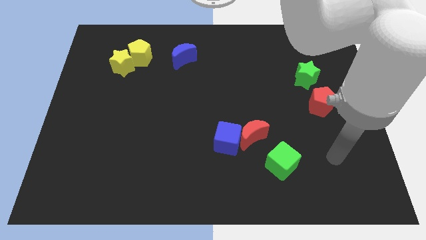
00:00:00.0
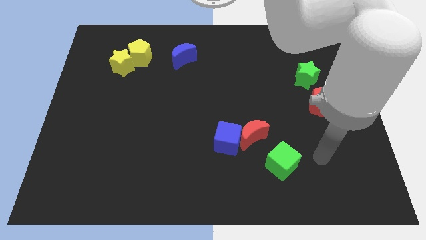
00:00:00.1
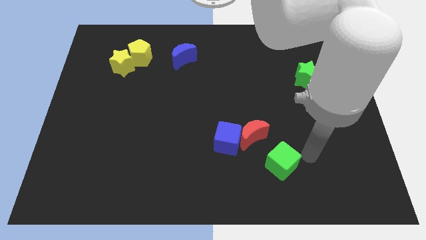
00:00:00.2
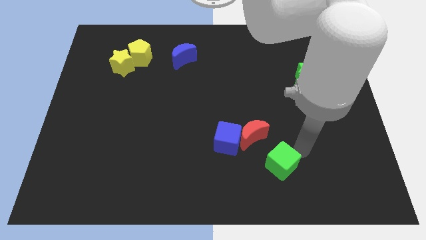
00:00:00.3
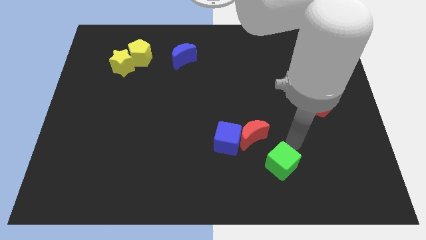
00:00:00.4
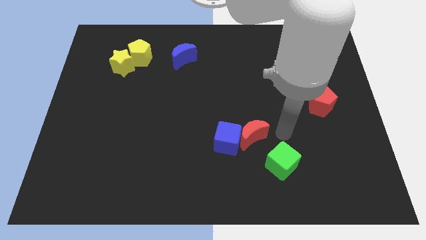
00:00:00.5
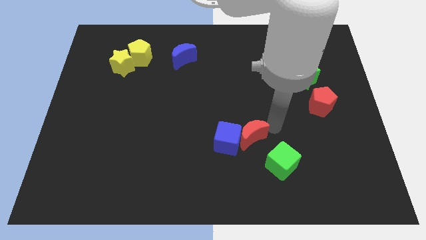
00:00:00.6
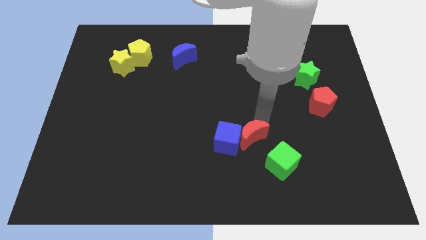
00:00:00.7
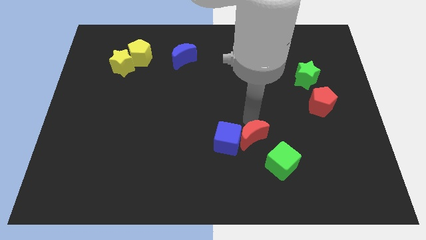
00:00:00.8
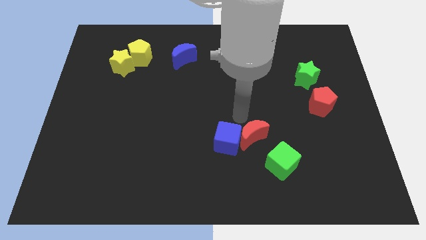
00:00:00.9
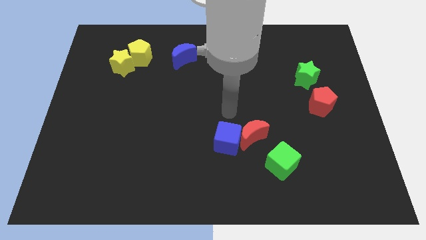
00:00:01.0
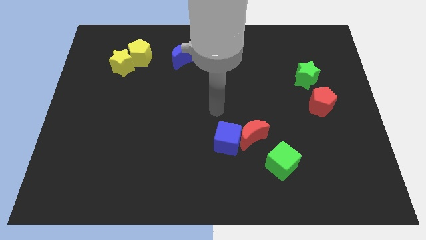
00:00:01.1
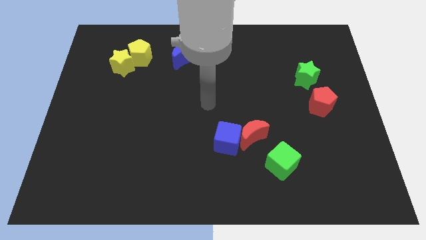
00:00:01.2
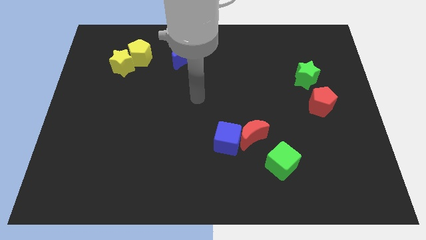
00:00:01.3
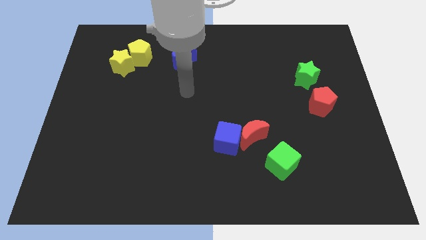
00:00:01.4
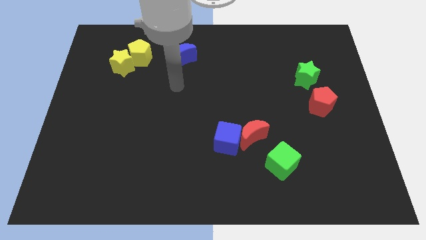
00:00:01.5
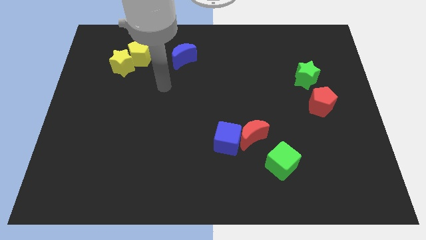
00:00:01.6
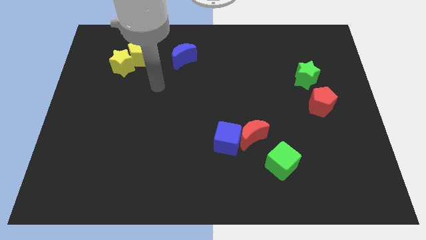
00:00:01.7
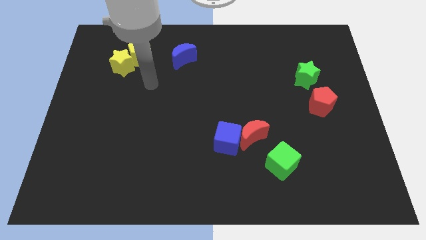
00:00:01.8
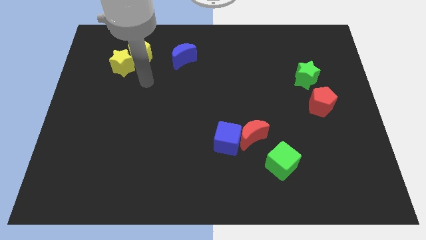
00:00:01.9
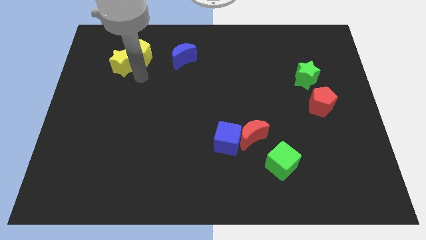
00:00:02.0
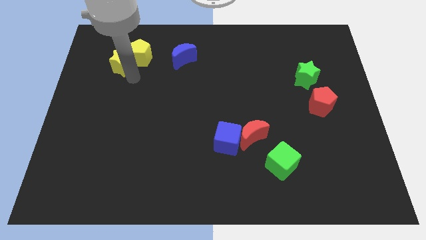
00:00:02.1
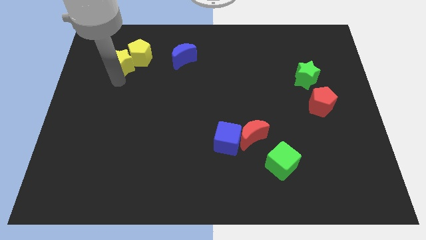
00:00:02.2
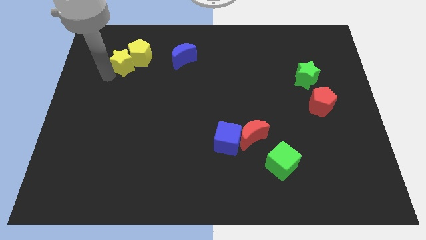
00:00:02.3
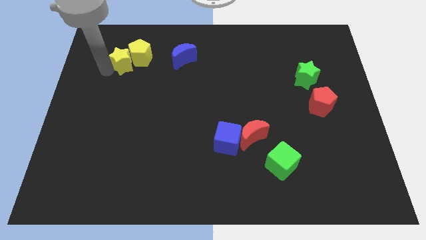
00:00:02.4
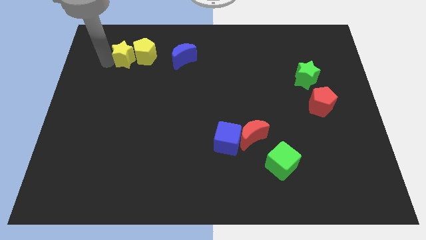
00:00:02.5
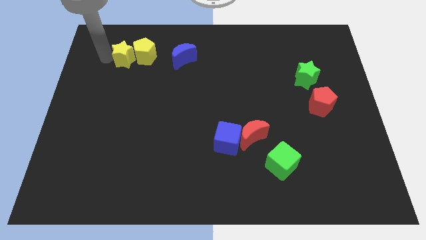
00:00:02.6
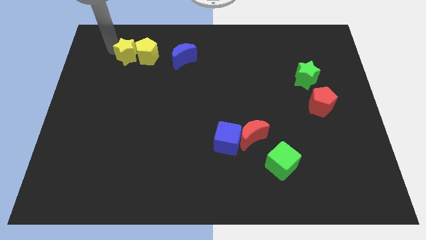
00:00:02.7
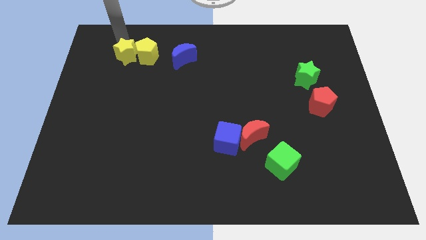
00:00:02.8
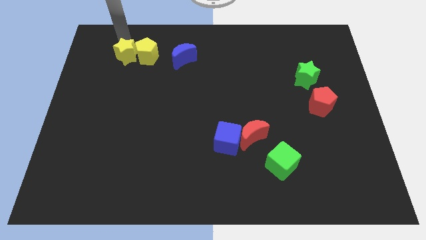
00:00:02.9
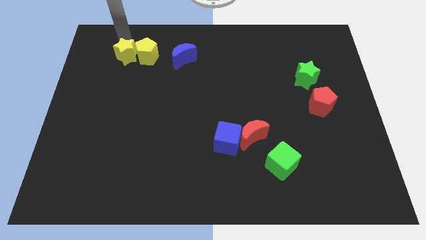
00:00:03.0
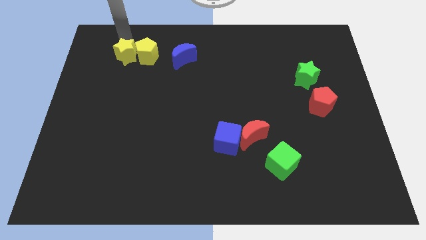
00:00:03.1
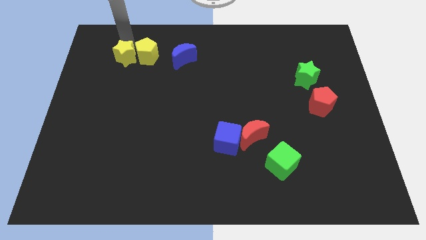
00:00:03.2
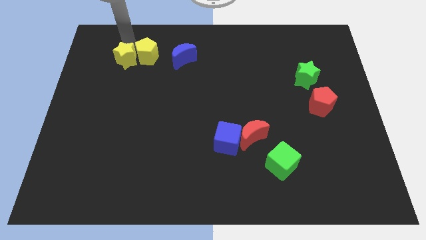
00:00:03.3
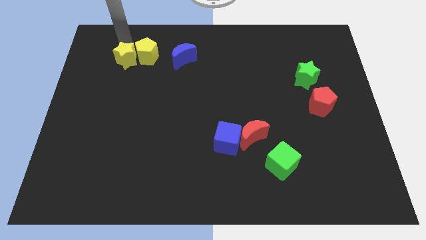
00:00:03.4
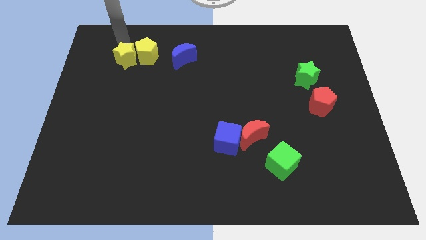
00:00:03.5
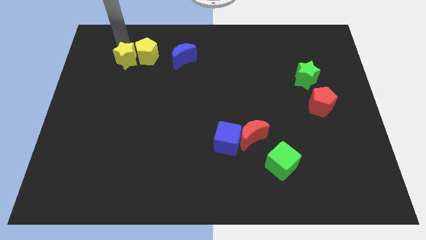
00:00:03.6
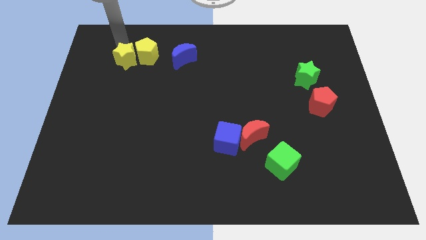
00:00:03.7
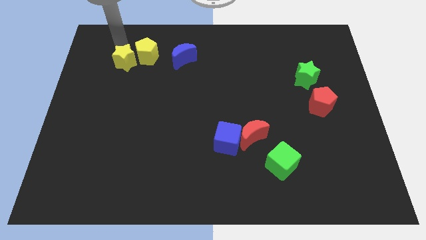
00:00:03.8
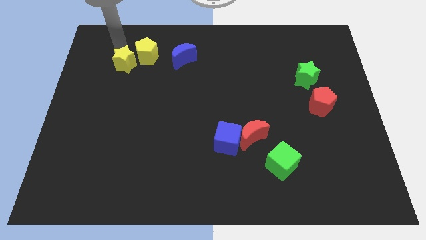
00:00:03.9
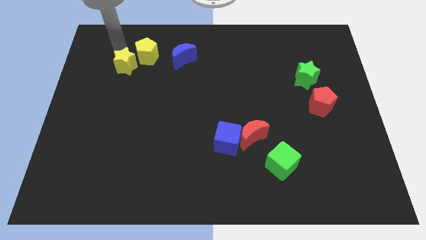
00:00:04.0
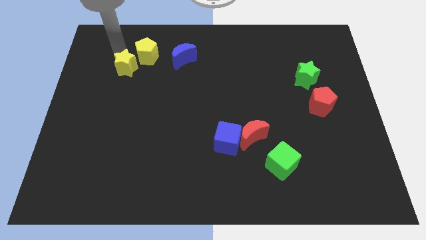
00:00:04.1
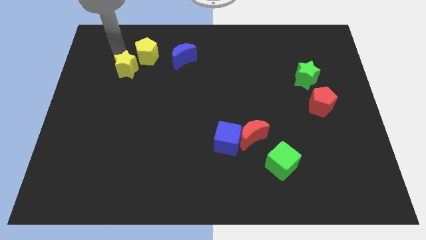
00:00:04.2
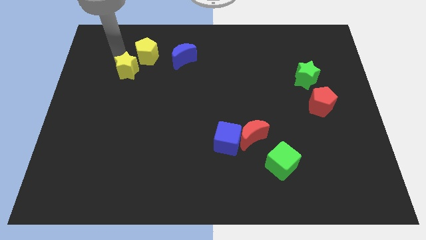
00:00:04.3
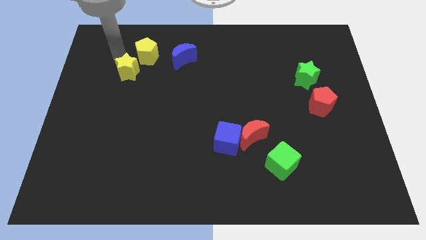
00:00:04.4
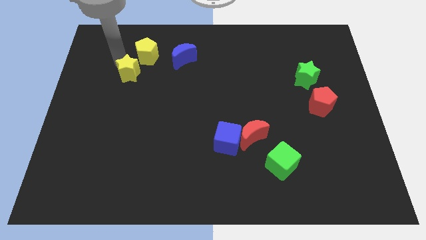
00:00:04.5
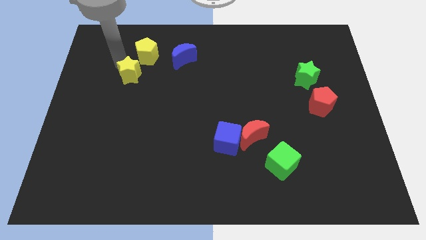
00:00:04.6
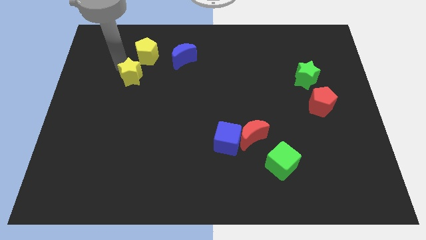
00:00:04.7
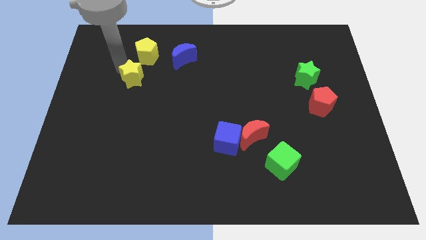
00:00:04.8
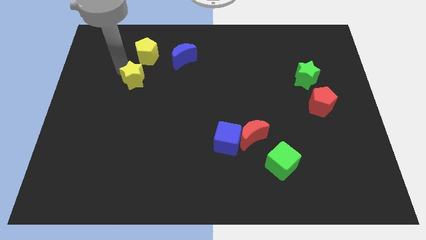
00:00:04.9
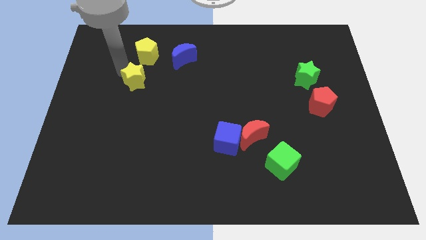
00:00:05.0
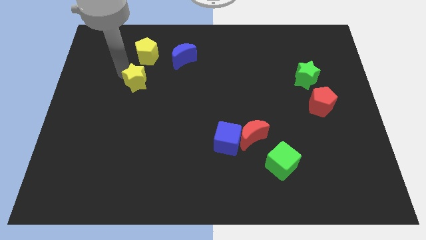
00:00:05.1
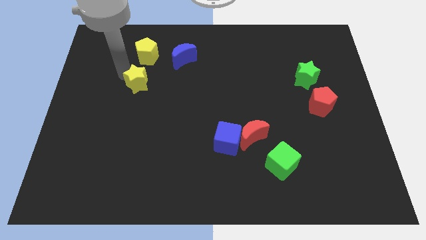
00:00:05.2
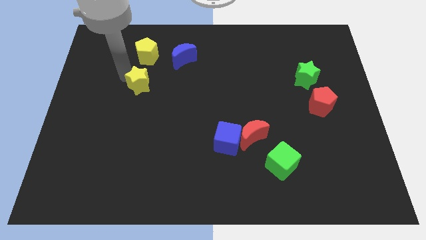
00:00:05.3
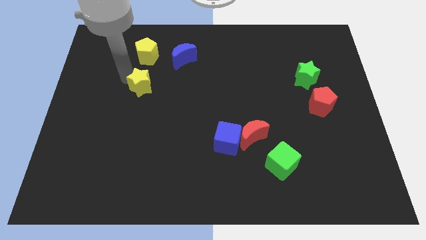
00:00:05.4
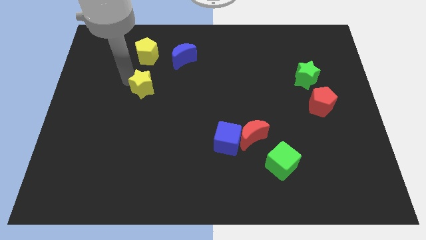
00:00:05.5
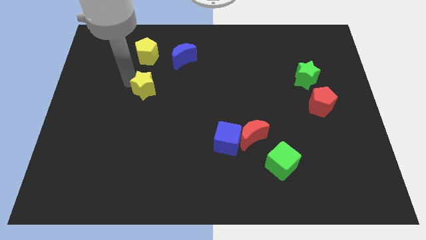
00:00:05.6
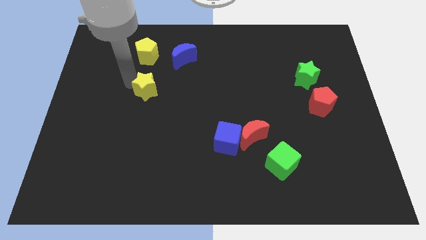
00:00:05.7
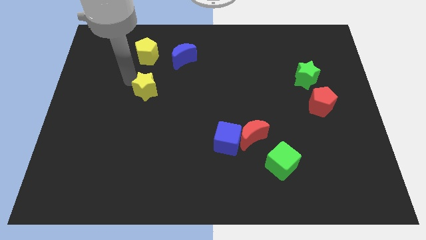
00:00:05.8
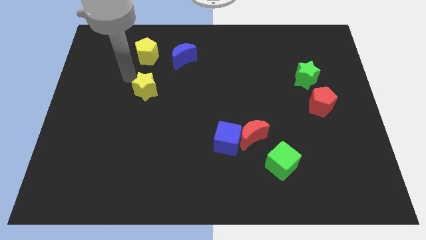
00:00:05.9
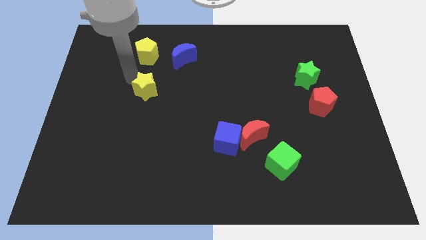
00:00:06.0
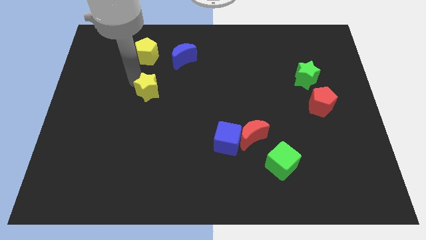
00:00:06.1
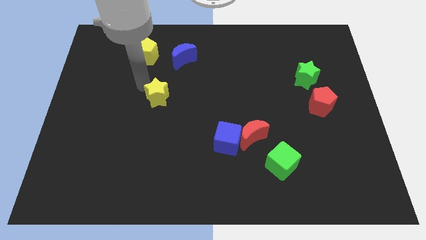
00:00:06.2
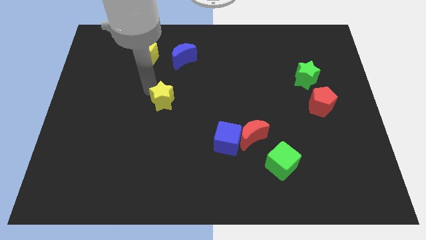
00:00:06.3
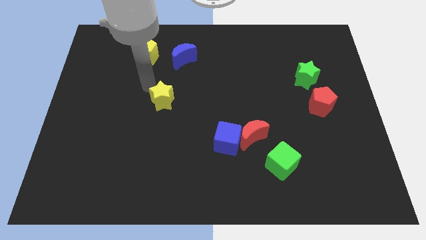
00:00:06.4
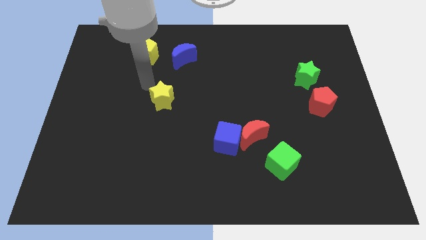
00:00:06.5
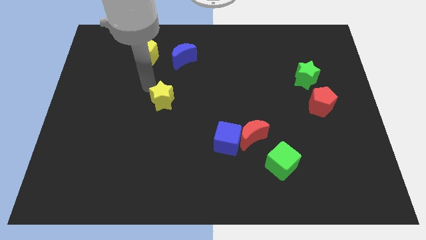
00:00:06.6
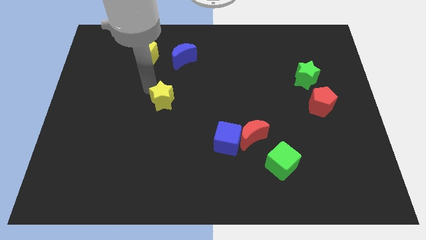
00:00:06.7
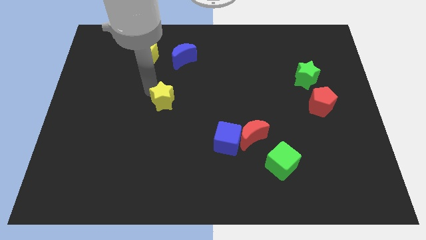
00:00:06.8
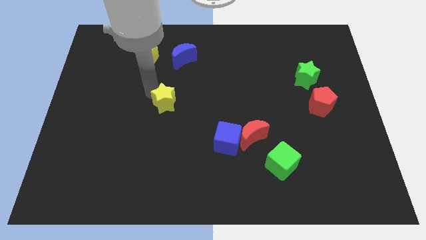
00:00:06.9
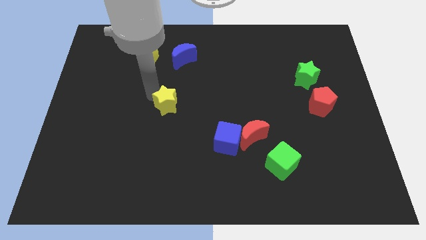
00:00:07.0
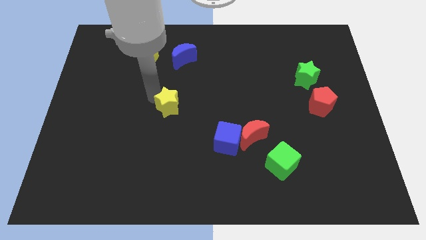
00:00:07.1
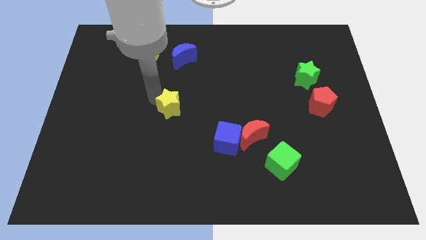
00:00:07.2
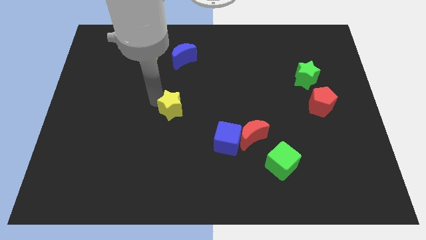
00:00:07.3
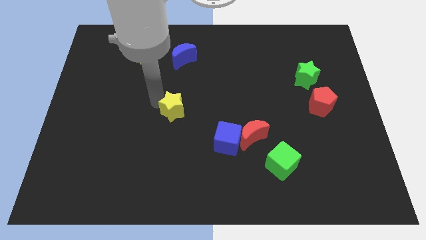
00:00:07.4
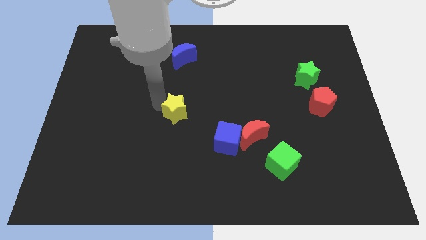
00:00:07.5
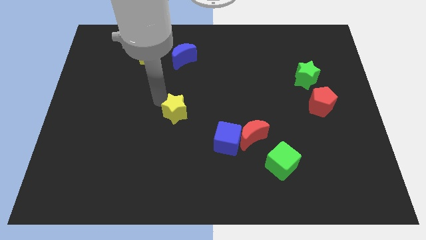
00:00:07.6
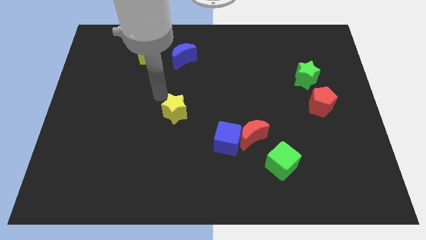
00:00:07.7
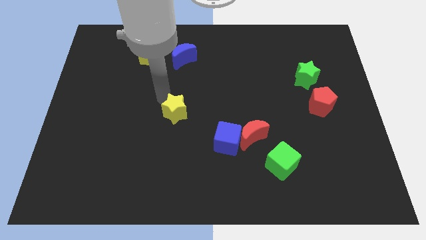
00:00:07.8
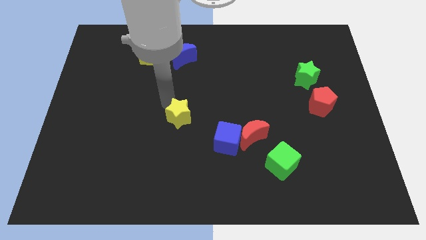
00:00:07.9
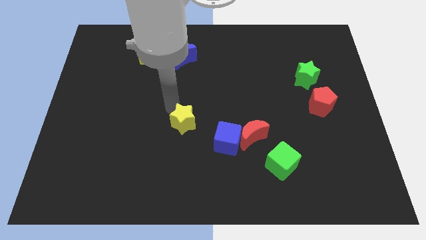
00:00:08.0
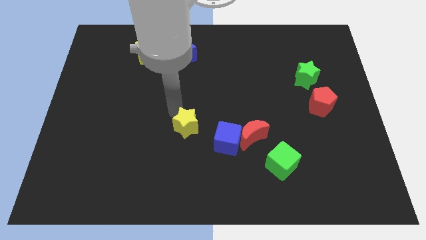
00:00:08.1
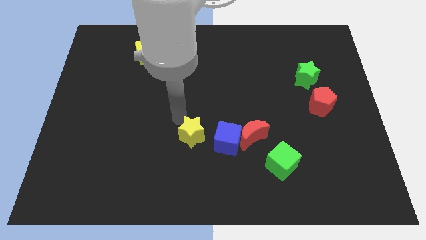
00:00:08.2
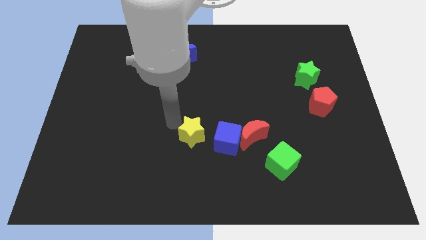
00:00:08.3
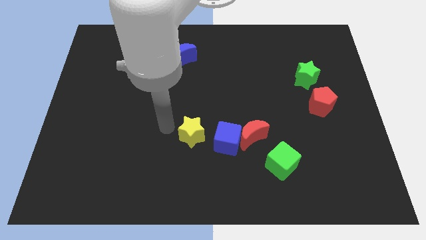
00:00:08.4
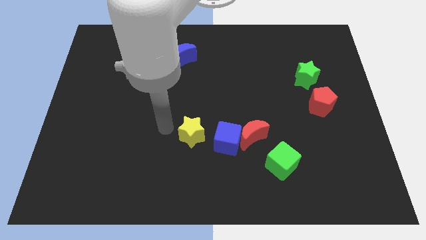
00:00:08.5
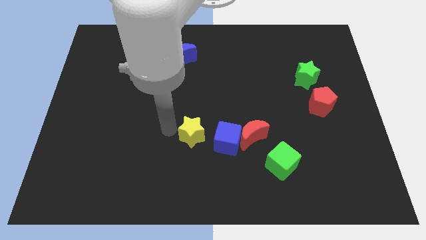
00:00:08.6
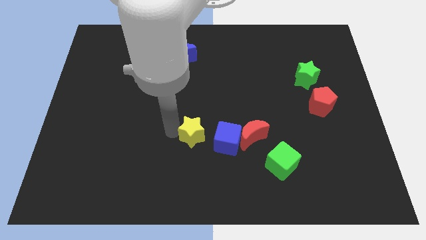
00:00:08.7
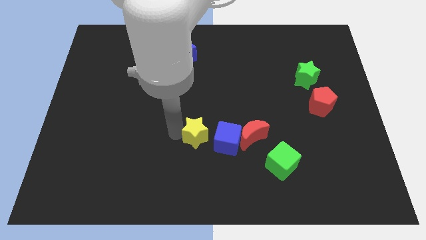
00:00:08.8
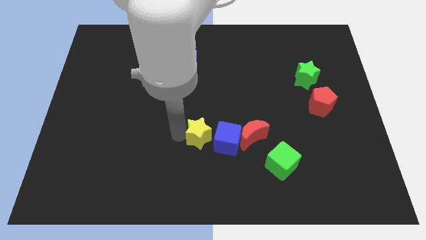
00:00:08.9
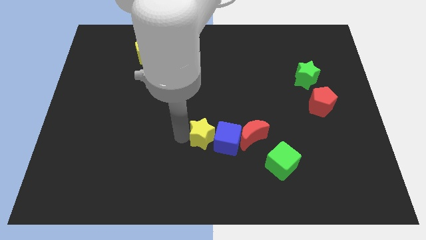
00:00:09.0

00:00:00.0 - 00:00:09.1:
put the yellow star towards the blue cube
